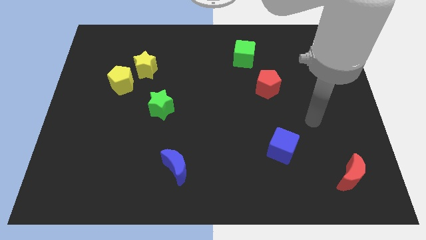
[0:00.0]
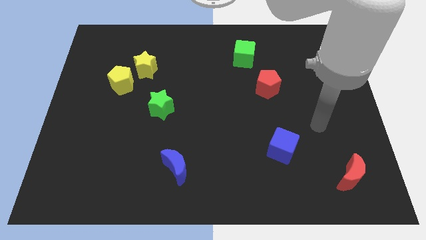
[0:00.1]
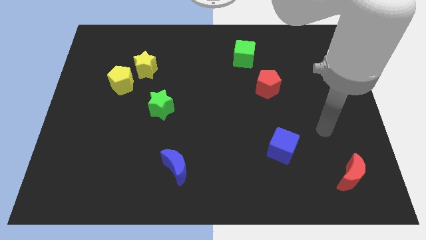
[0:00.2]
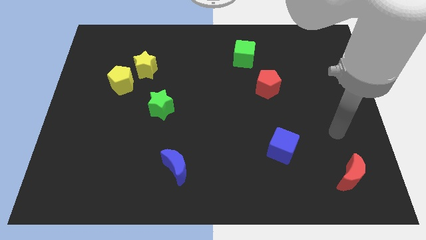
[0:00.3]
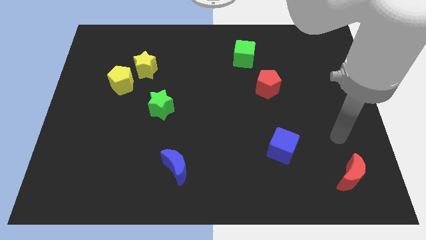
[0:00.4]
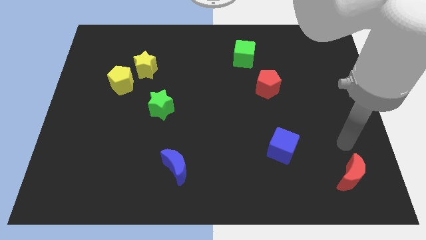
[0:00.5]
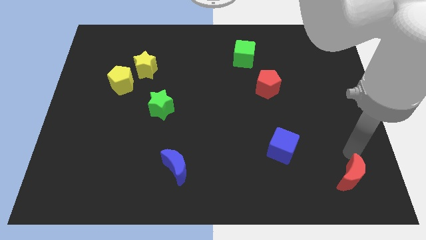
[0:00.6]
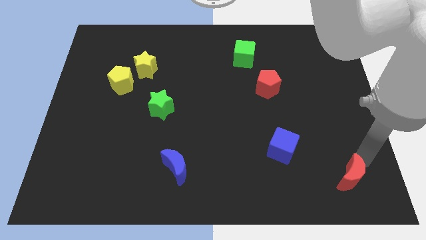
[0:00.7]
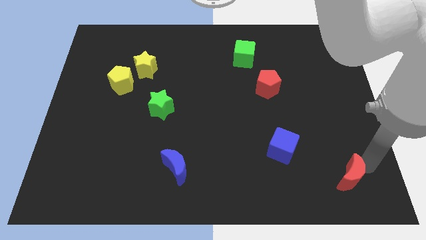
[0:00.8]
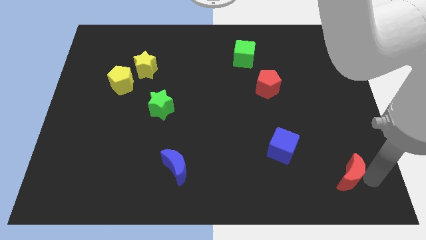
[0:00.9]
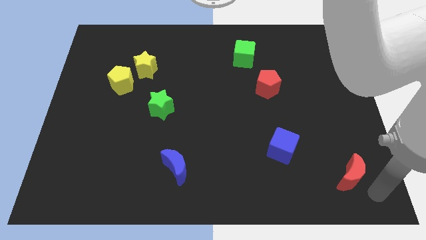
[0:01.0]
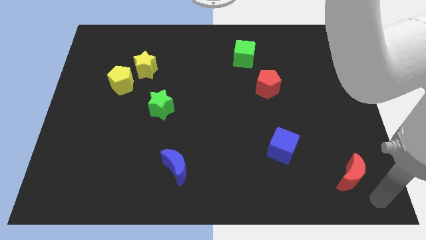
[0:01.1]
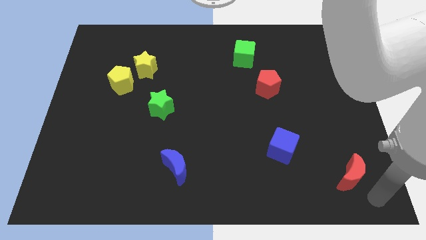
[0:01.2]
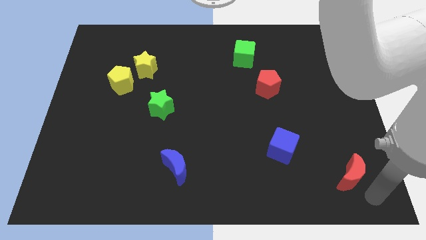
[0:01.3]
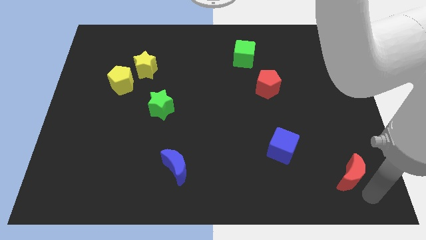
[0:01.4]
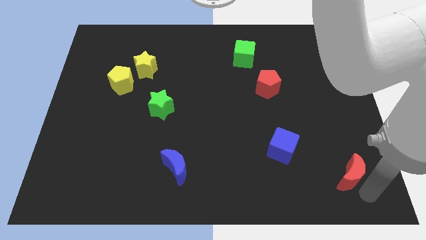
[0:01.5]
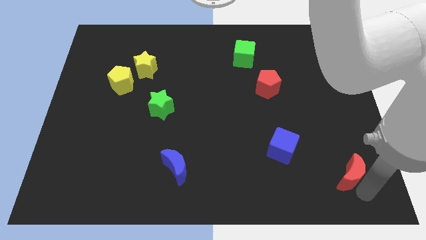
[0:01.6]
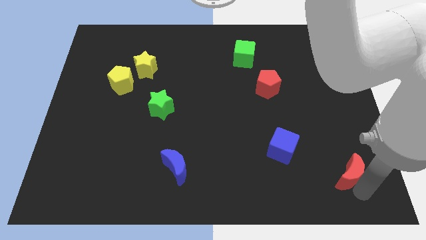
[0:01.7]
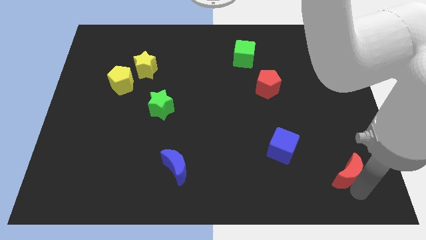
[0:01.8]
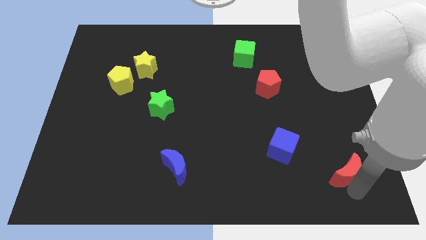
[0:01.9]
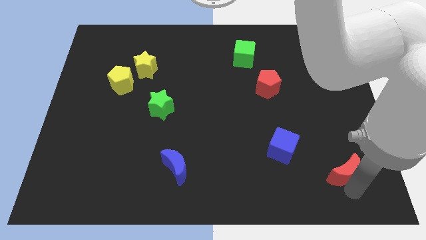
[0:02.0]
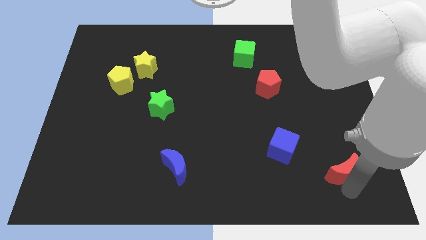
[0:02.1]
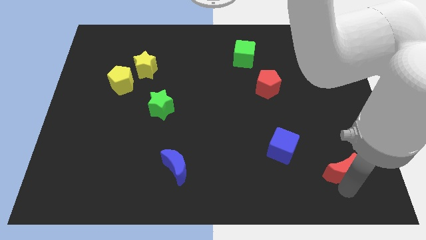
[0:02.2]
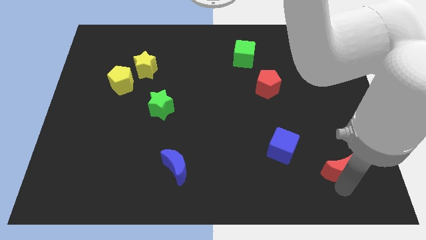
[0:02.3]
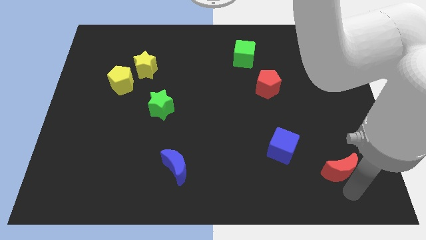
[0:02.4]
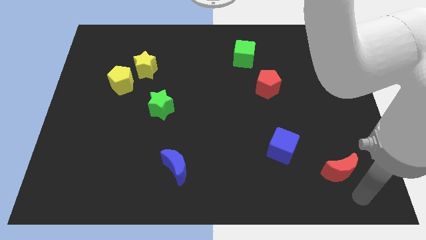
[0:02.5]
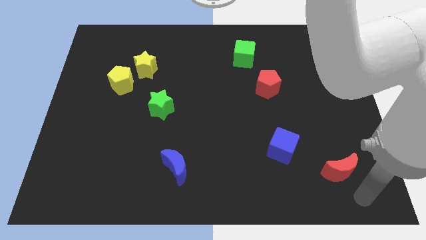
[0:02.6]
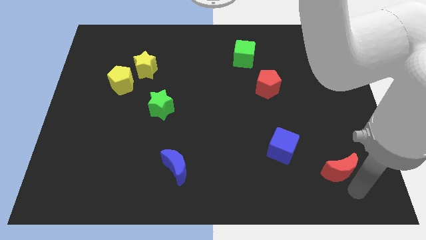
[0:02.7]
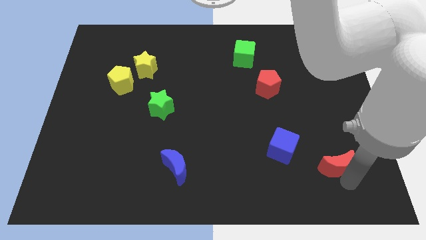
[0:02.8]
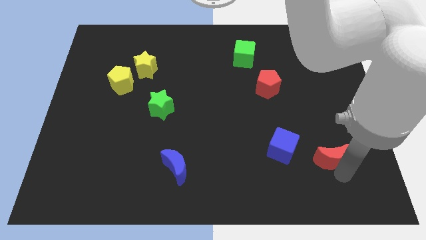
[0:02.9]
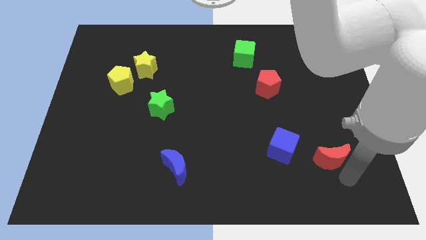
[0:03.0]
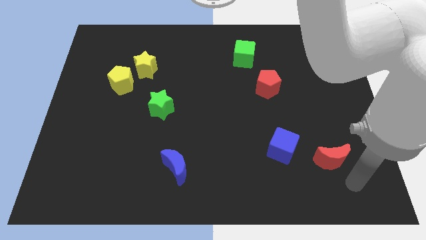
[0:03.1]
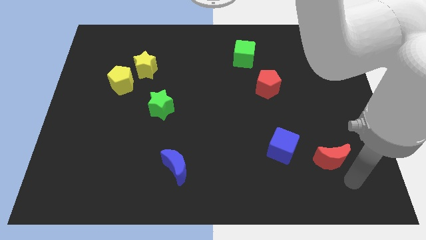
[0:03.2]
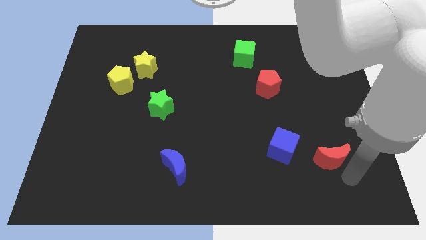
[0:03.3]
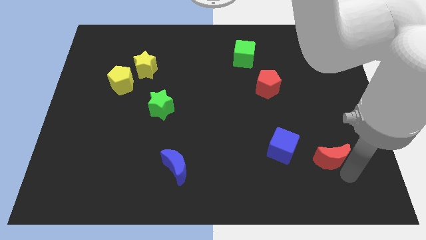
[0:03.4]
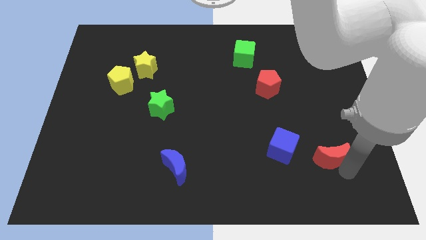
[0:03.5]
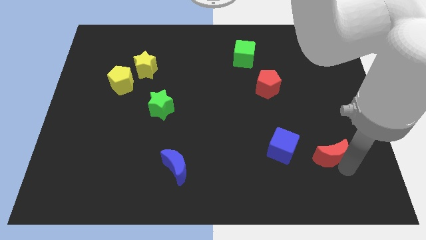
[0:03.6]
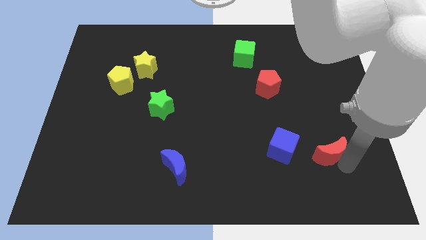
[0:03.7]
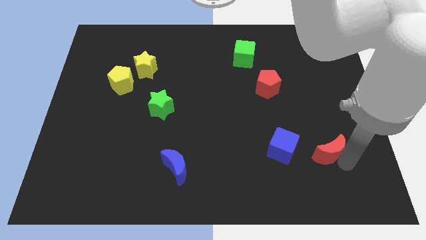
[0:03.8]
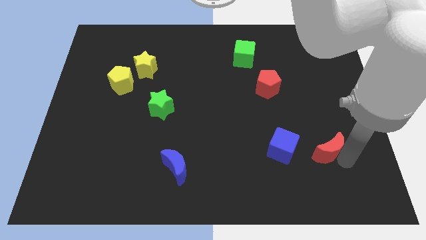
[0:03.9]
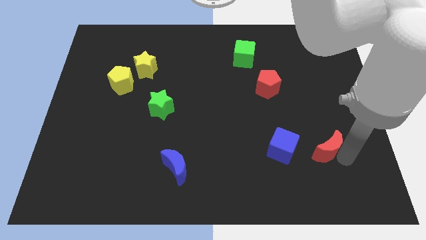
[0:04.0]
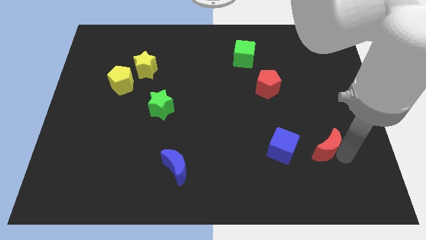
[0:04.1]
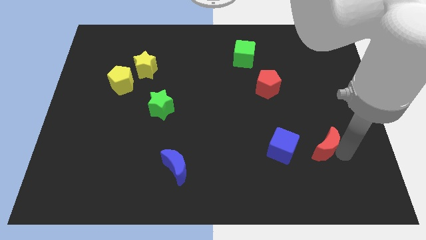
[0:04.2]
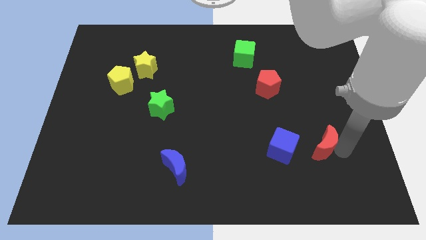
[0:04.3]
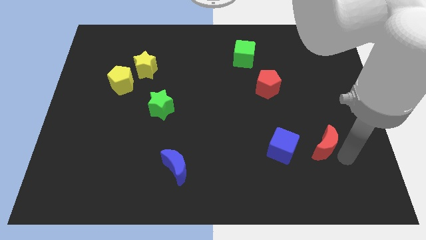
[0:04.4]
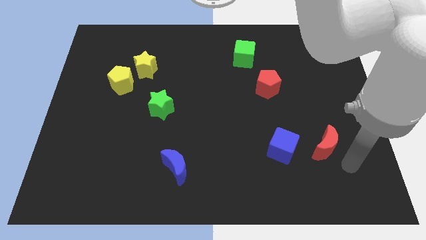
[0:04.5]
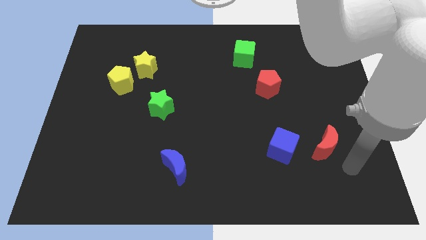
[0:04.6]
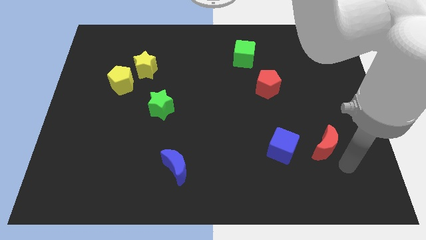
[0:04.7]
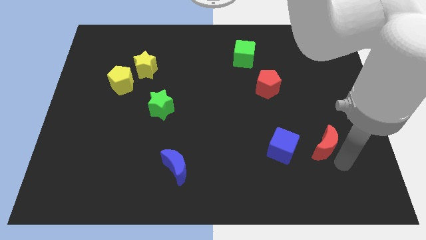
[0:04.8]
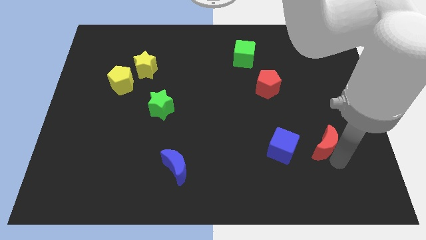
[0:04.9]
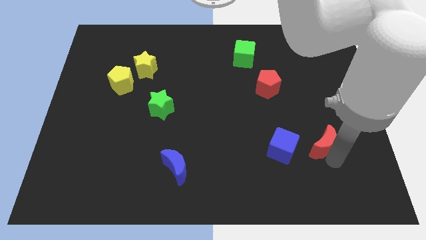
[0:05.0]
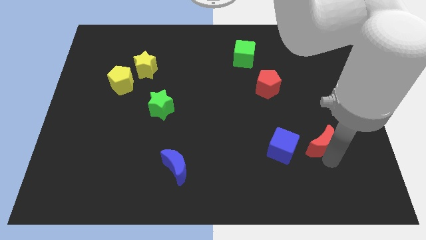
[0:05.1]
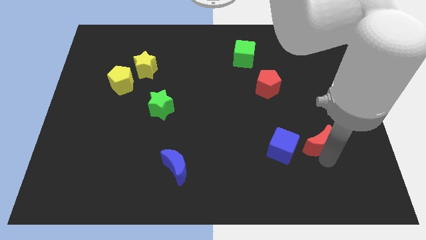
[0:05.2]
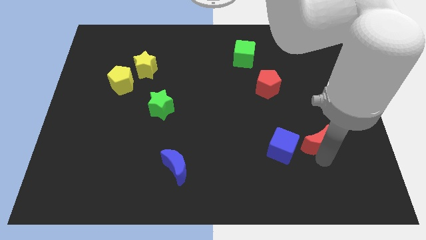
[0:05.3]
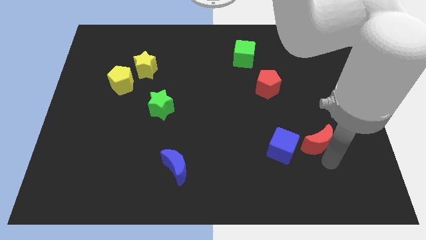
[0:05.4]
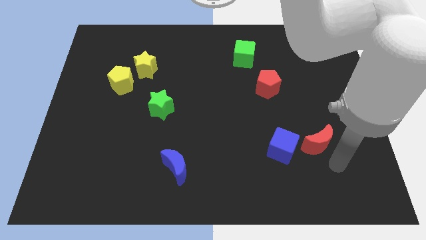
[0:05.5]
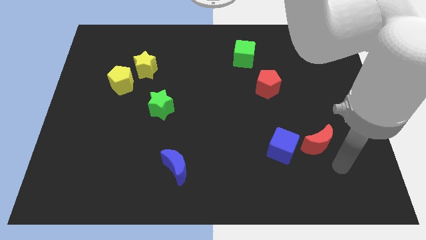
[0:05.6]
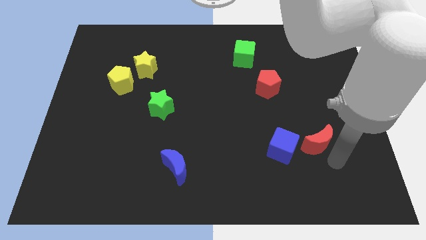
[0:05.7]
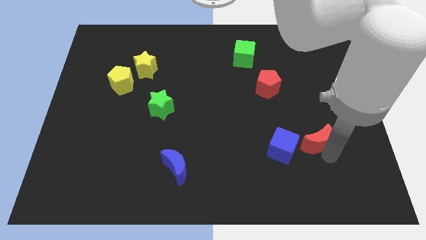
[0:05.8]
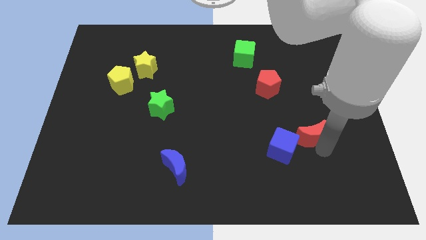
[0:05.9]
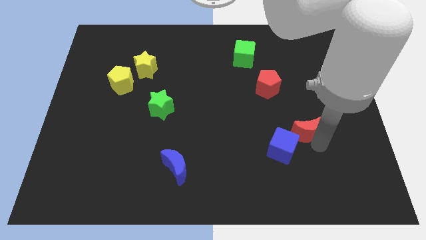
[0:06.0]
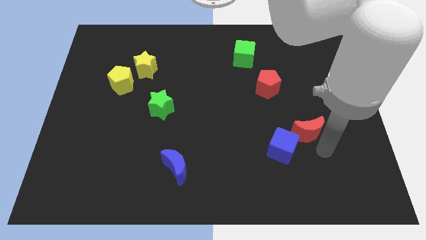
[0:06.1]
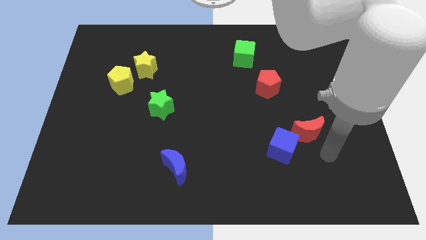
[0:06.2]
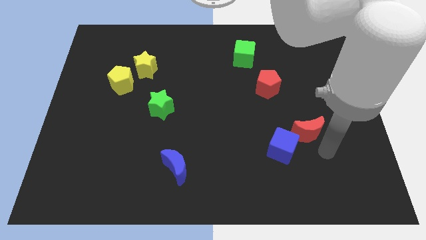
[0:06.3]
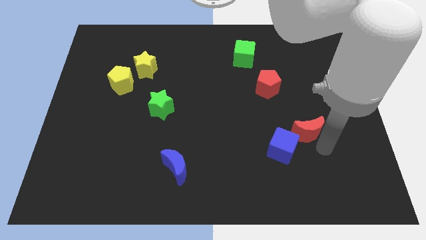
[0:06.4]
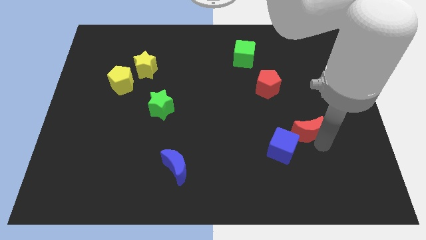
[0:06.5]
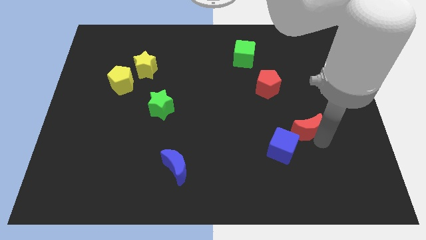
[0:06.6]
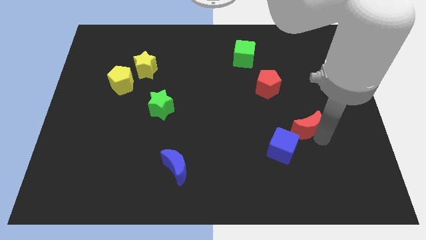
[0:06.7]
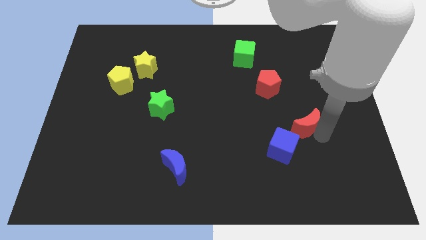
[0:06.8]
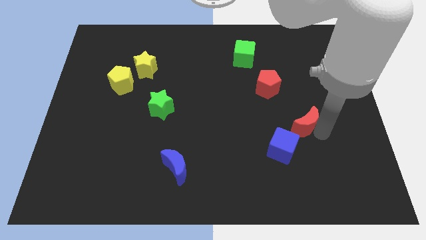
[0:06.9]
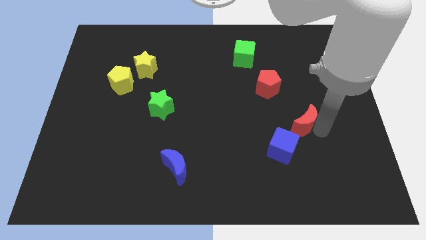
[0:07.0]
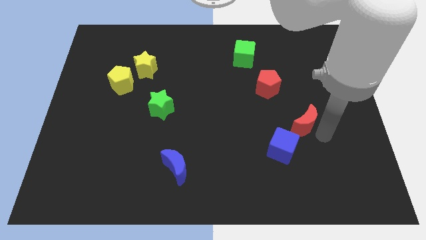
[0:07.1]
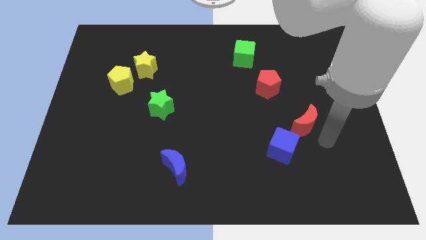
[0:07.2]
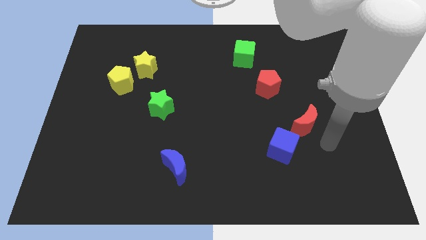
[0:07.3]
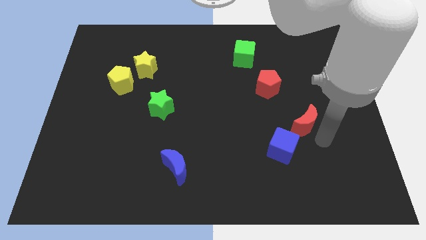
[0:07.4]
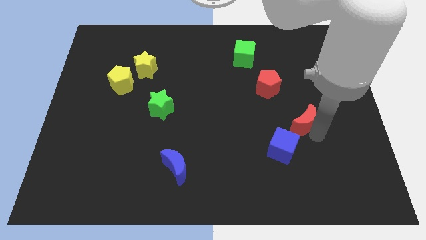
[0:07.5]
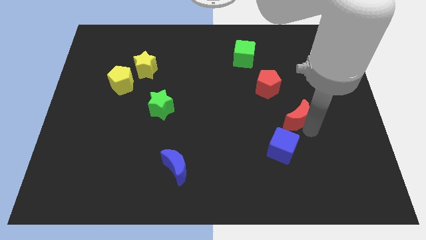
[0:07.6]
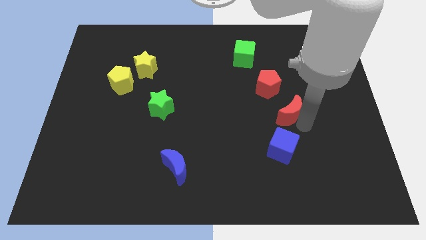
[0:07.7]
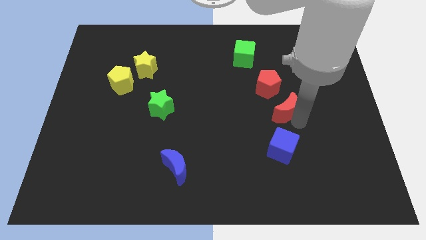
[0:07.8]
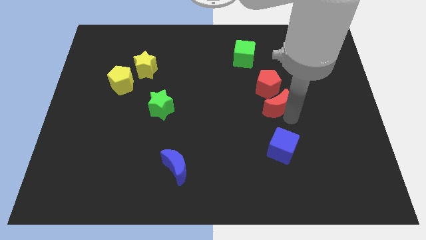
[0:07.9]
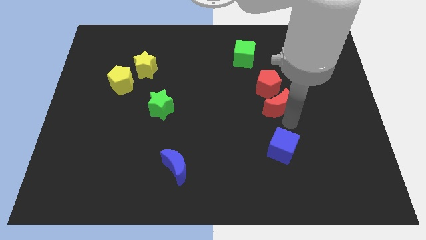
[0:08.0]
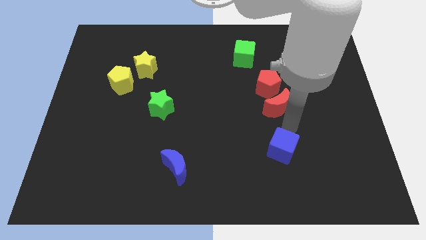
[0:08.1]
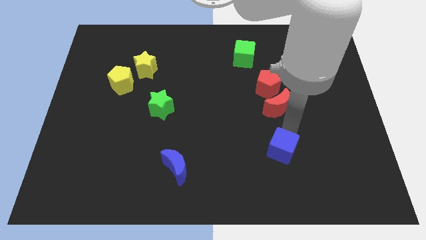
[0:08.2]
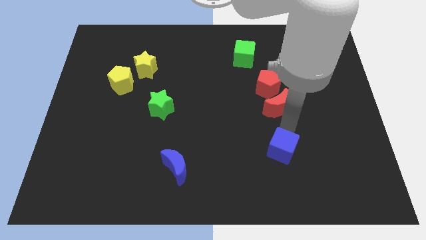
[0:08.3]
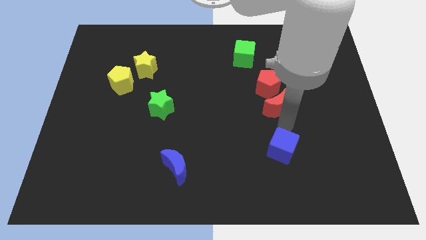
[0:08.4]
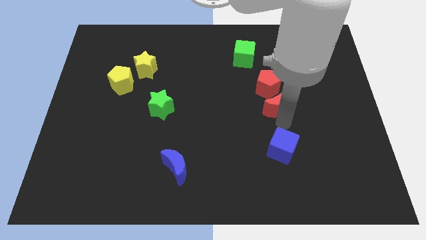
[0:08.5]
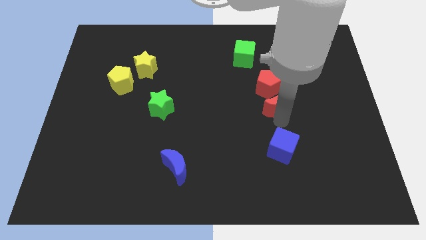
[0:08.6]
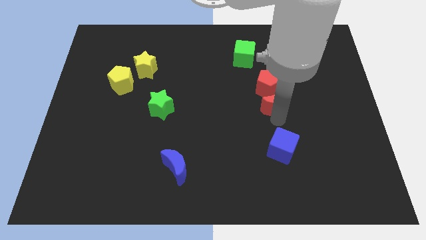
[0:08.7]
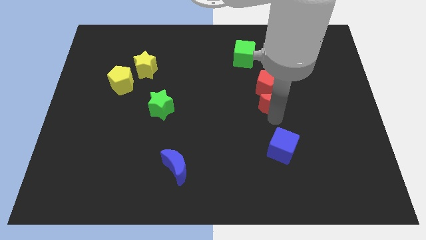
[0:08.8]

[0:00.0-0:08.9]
move the red moon to the red pentagon
